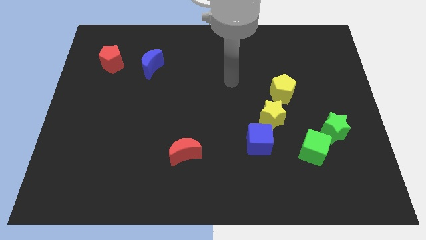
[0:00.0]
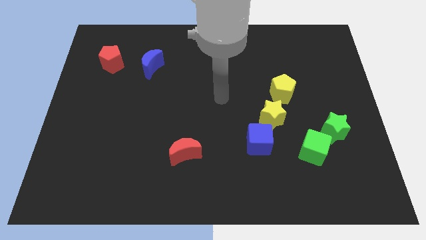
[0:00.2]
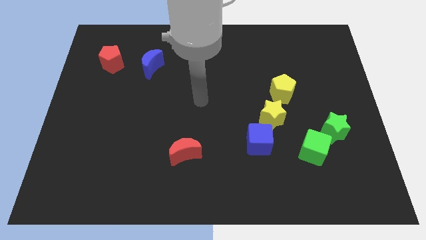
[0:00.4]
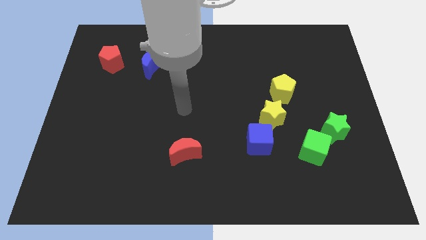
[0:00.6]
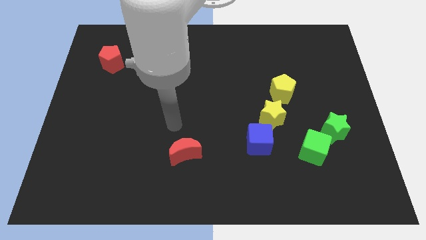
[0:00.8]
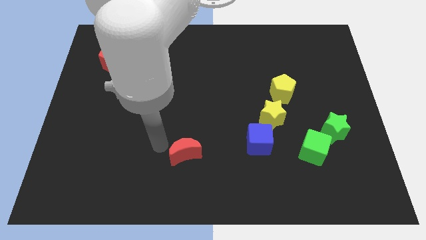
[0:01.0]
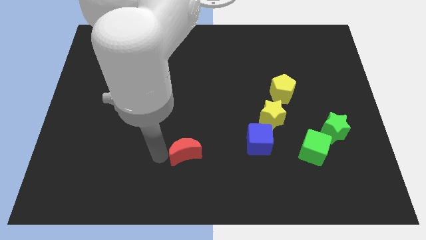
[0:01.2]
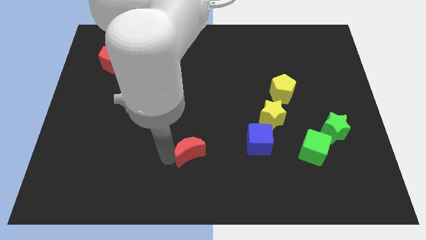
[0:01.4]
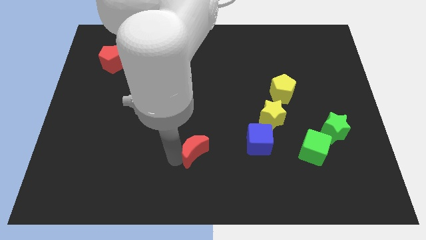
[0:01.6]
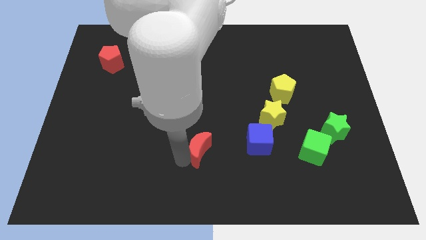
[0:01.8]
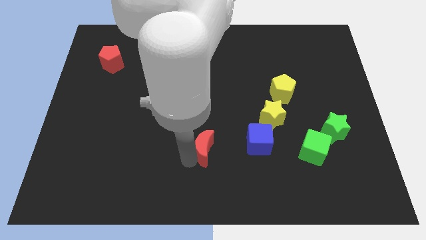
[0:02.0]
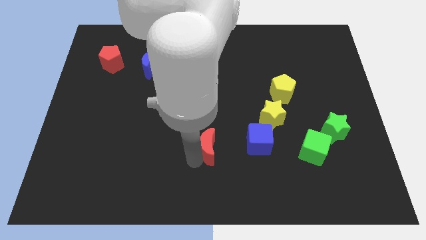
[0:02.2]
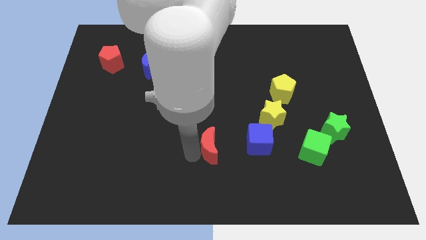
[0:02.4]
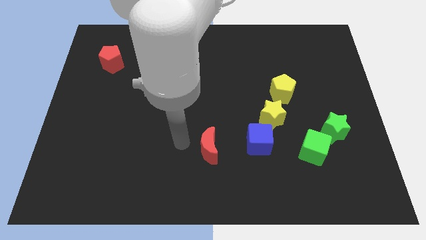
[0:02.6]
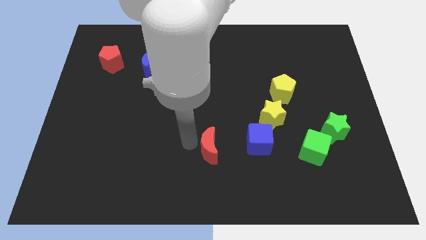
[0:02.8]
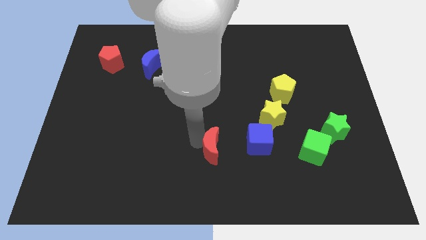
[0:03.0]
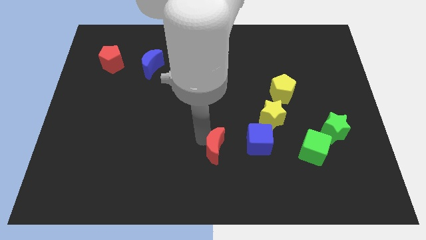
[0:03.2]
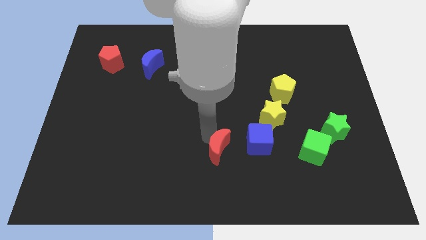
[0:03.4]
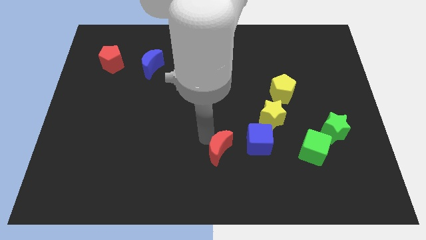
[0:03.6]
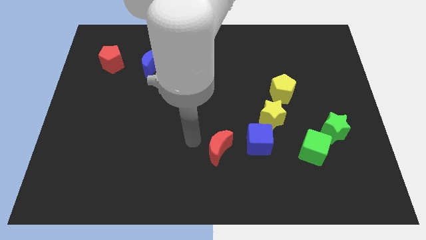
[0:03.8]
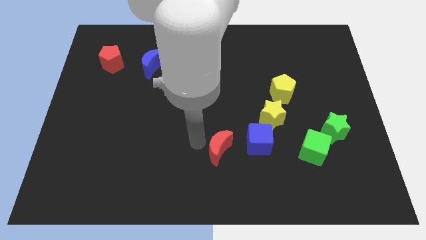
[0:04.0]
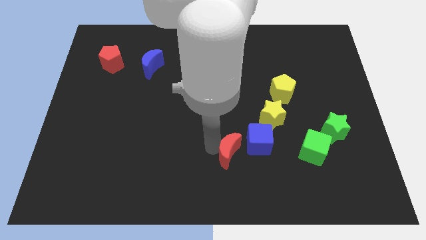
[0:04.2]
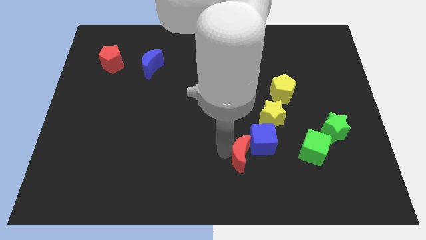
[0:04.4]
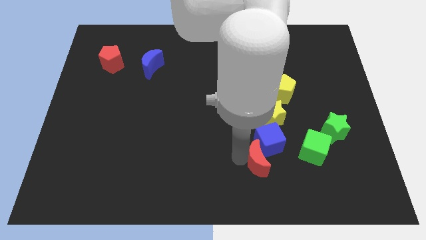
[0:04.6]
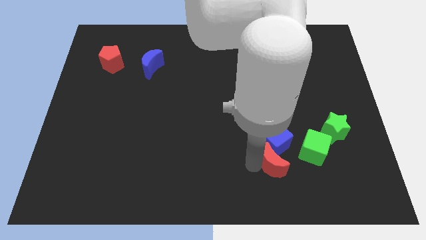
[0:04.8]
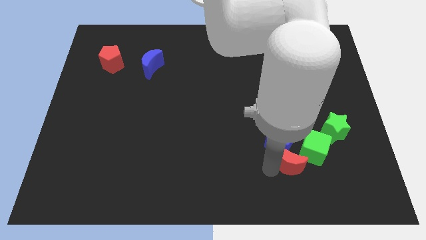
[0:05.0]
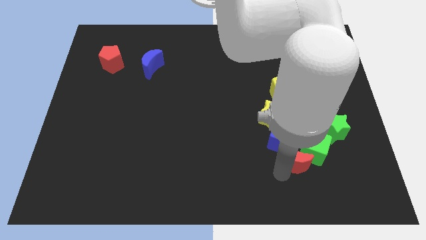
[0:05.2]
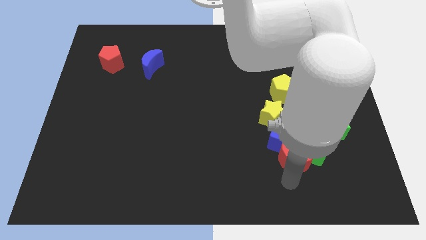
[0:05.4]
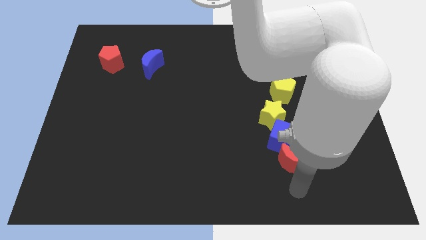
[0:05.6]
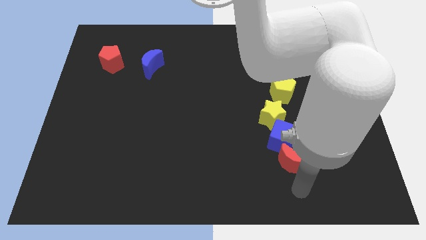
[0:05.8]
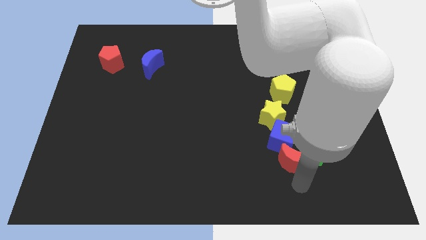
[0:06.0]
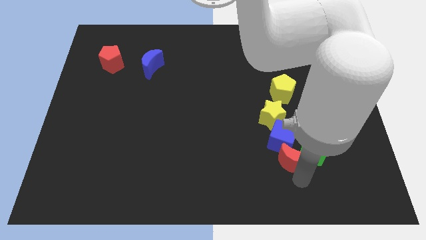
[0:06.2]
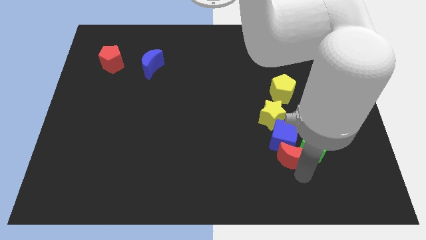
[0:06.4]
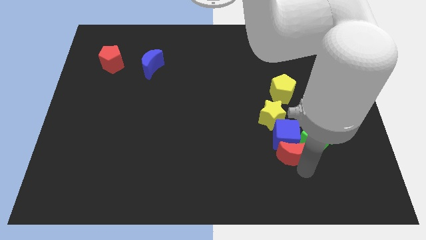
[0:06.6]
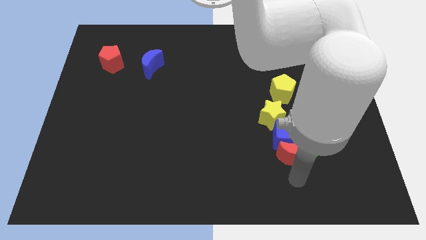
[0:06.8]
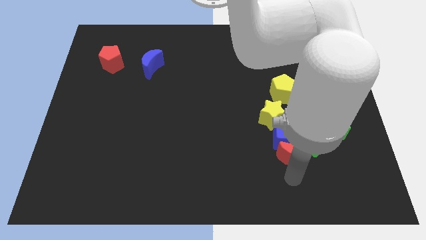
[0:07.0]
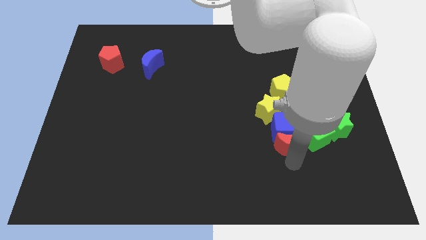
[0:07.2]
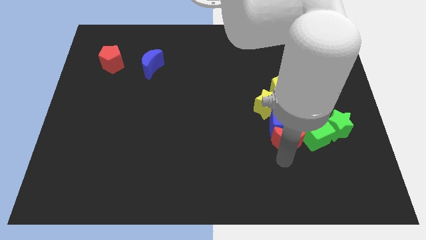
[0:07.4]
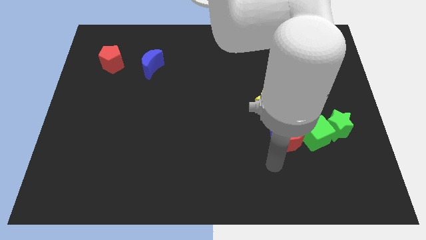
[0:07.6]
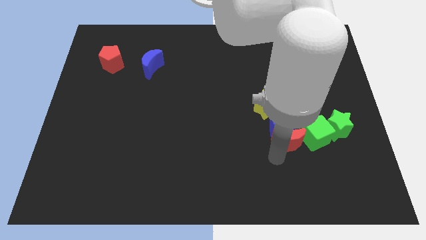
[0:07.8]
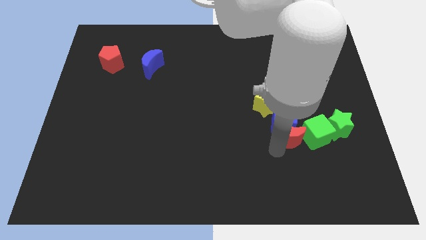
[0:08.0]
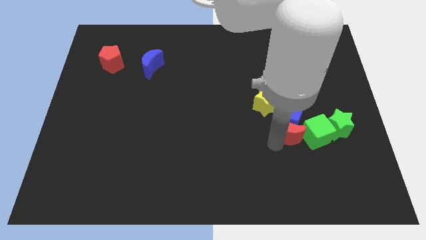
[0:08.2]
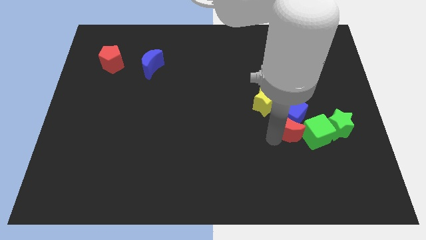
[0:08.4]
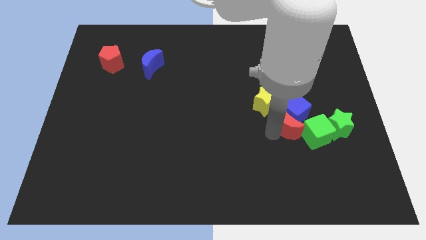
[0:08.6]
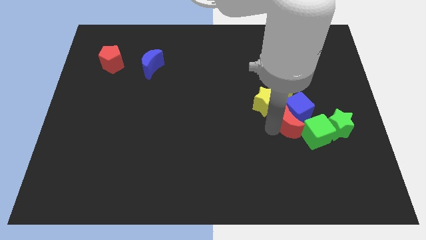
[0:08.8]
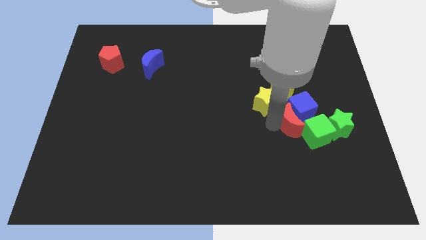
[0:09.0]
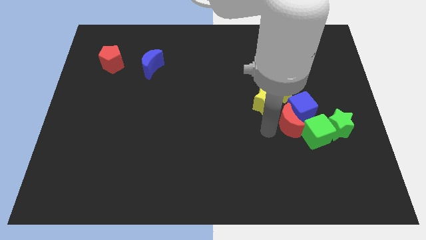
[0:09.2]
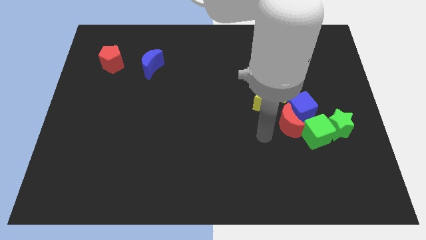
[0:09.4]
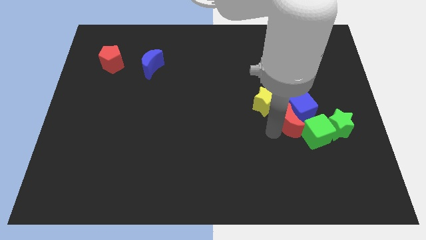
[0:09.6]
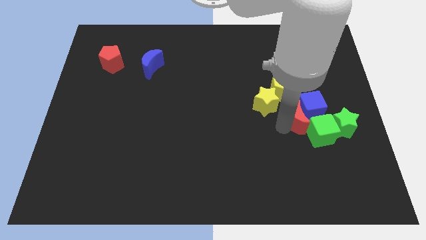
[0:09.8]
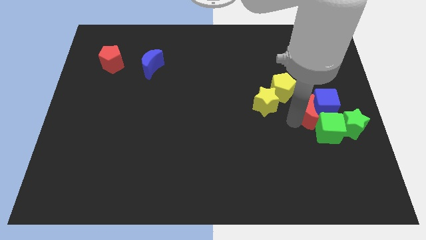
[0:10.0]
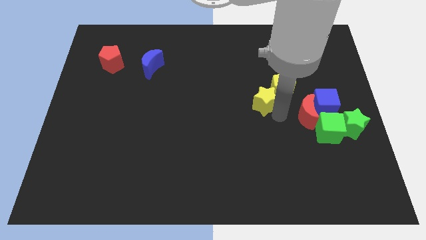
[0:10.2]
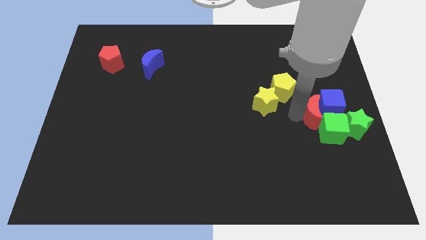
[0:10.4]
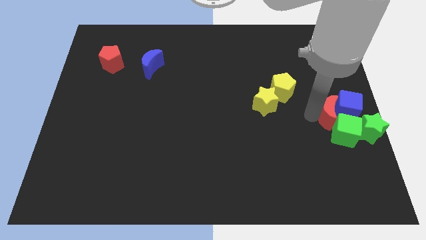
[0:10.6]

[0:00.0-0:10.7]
move the red moon to the right side of the board

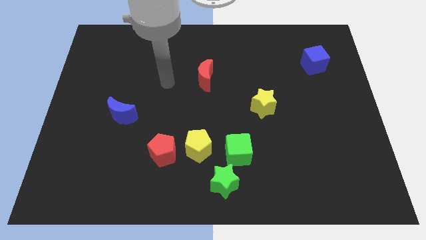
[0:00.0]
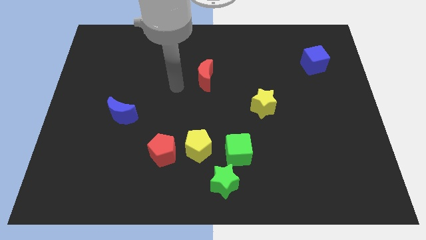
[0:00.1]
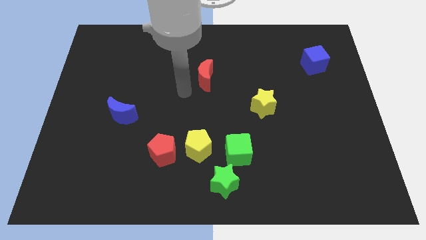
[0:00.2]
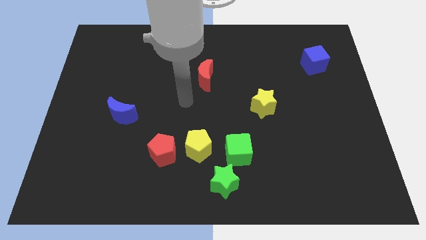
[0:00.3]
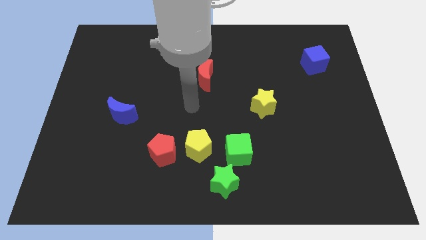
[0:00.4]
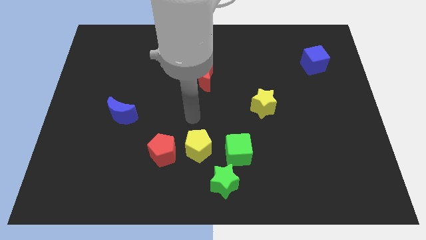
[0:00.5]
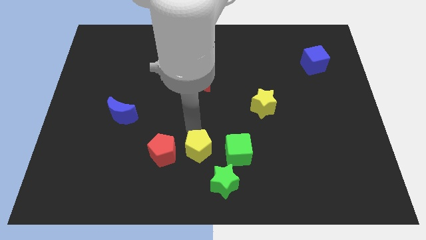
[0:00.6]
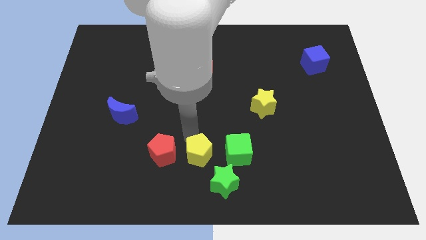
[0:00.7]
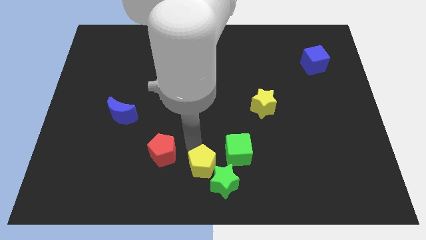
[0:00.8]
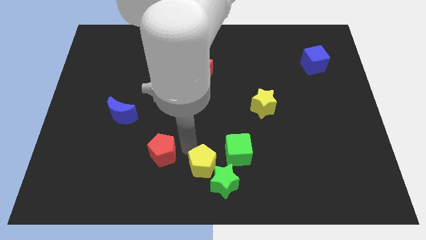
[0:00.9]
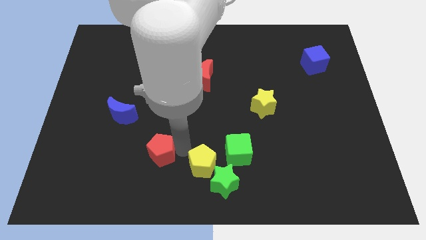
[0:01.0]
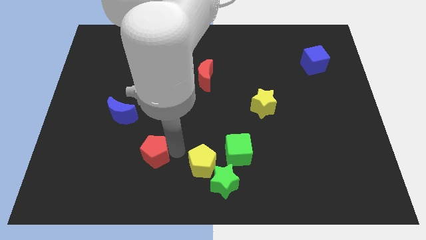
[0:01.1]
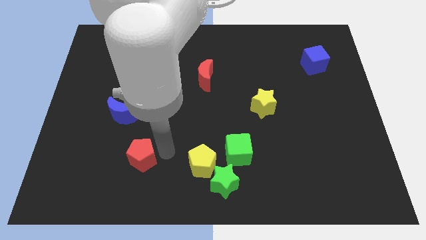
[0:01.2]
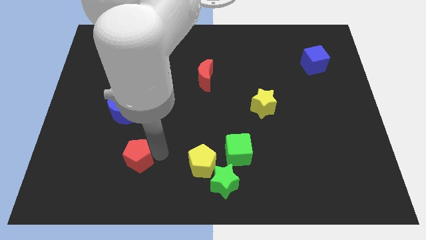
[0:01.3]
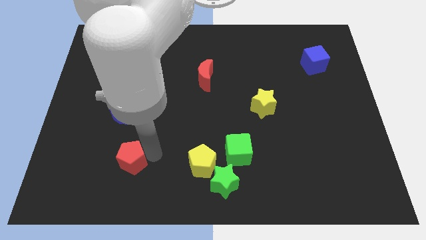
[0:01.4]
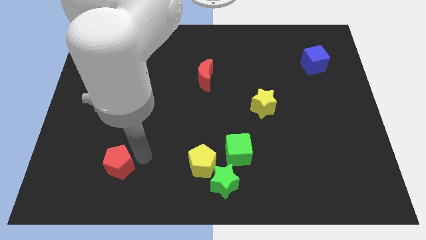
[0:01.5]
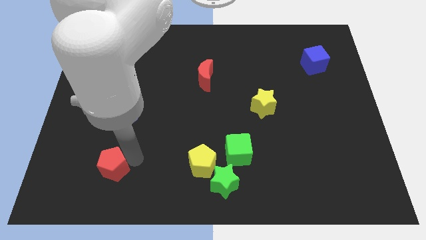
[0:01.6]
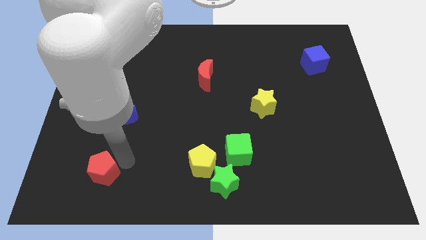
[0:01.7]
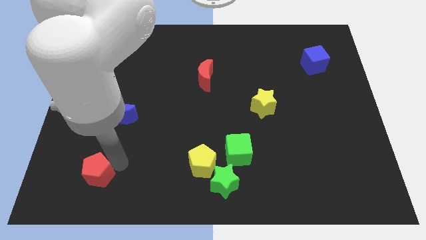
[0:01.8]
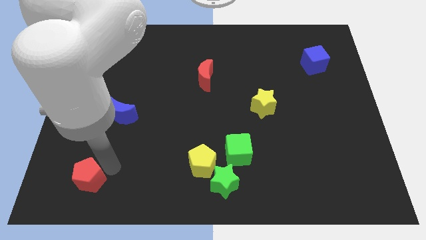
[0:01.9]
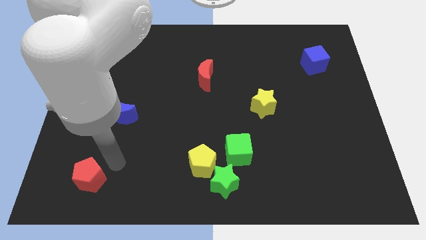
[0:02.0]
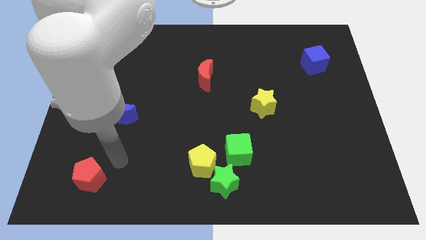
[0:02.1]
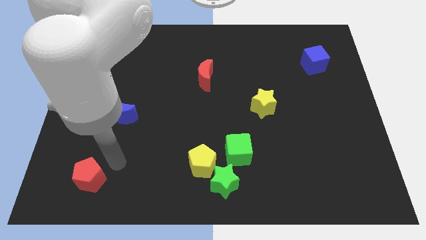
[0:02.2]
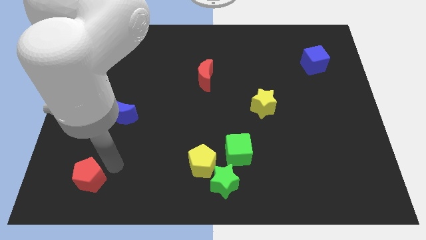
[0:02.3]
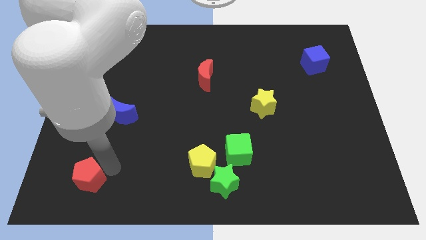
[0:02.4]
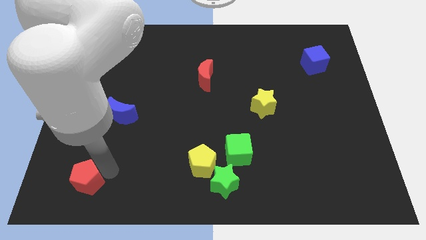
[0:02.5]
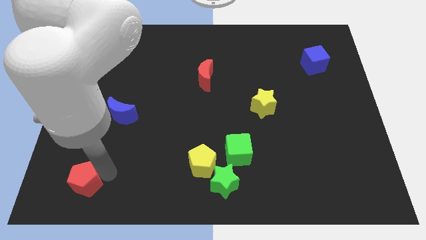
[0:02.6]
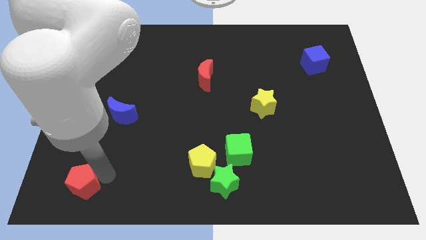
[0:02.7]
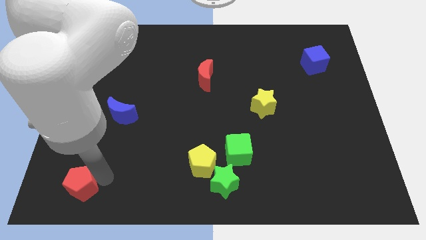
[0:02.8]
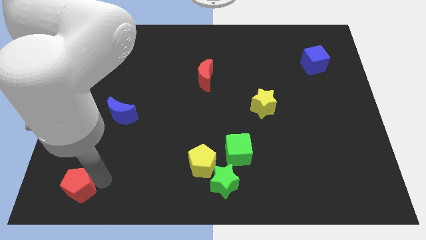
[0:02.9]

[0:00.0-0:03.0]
move the red pentagon to the bottom left of the board
